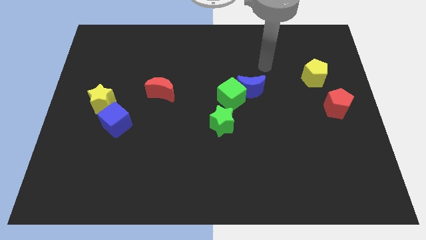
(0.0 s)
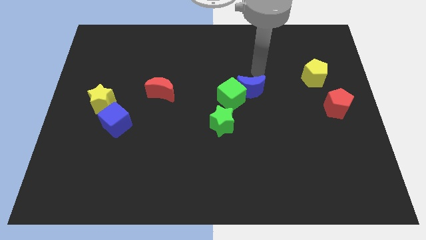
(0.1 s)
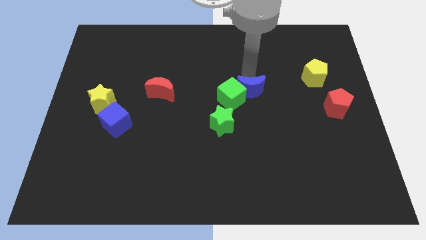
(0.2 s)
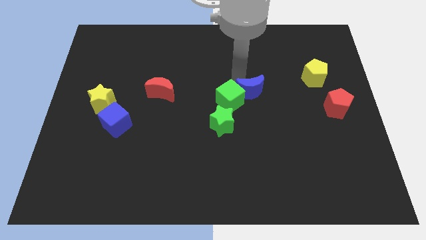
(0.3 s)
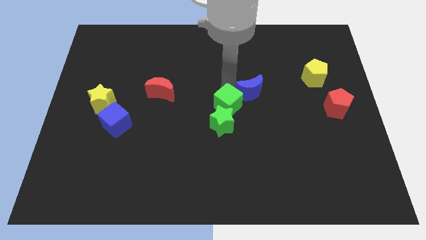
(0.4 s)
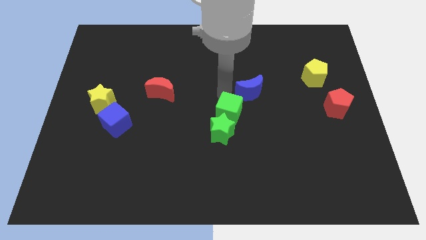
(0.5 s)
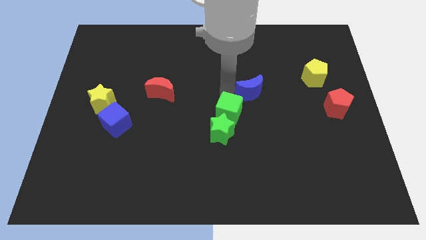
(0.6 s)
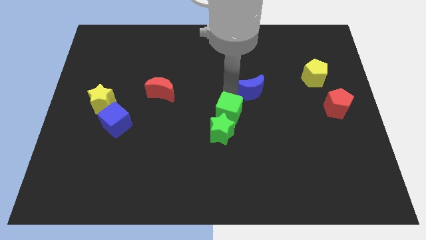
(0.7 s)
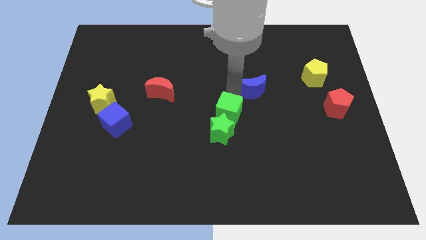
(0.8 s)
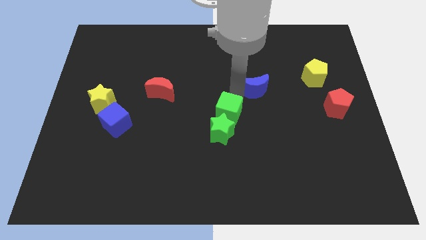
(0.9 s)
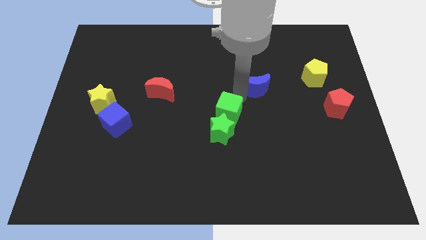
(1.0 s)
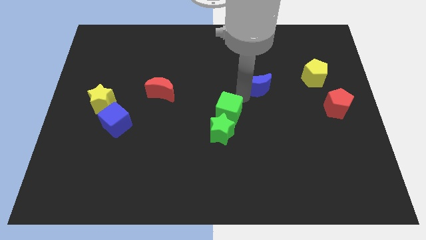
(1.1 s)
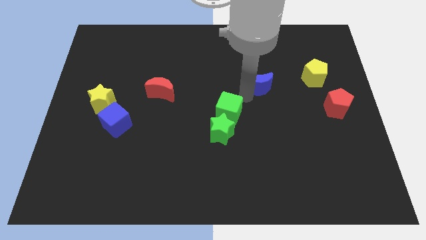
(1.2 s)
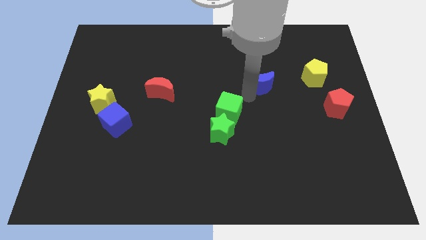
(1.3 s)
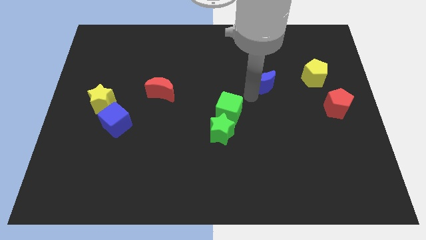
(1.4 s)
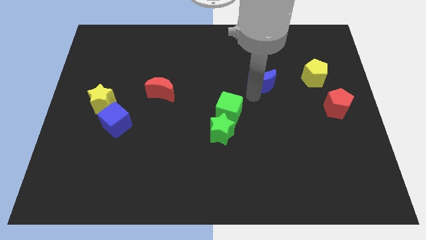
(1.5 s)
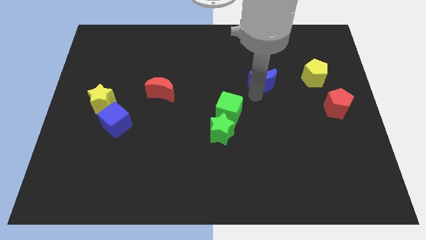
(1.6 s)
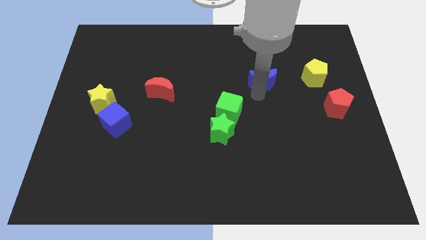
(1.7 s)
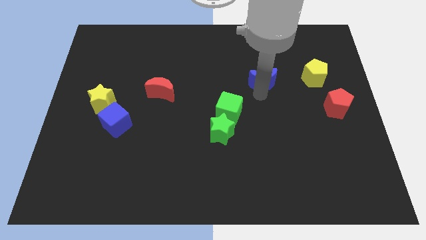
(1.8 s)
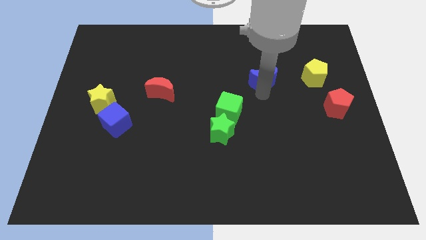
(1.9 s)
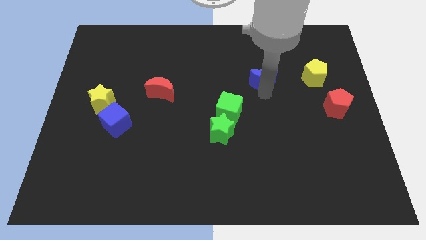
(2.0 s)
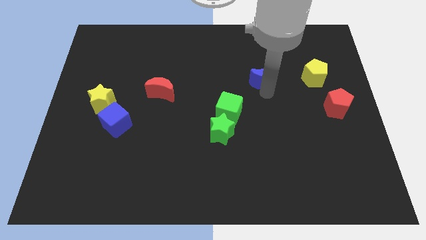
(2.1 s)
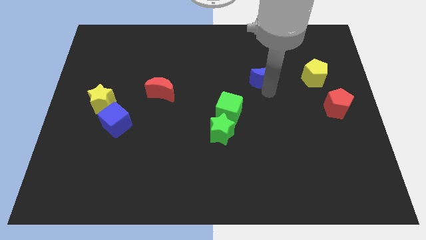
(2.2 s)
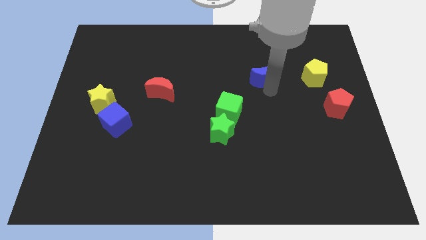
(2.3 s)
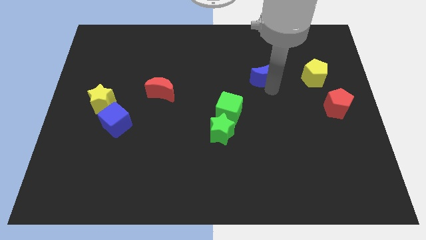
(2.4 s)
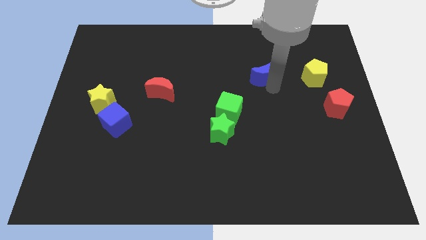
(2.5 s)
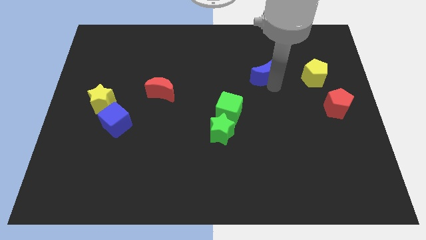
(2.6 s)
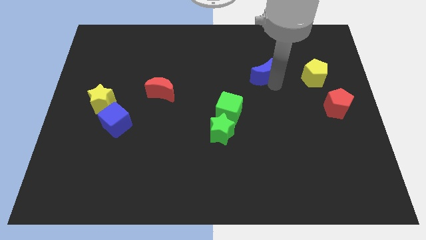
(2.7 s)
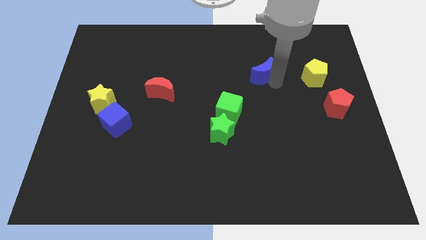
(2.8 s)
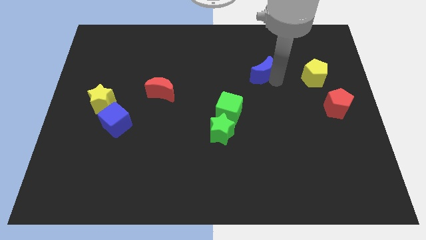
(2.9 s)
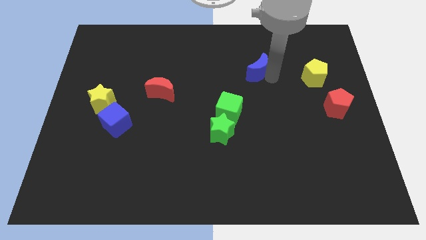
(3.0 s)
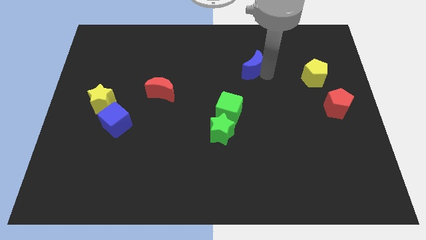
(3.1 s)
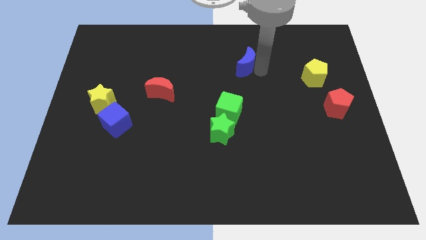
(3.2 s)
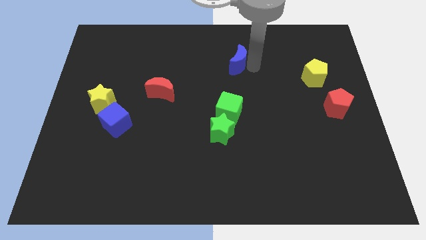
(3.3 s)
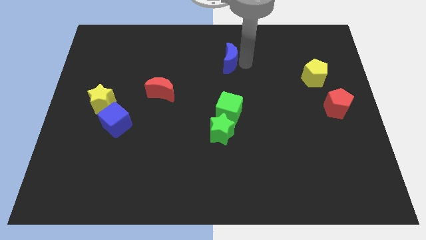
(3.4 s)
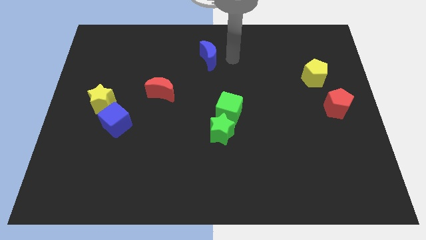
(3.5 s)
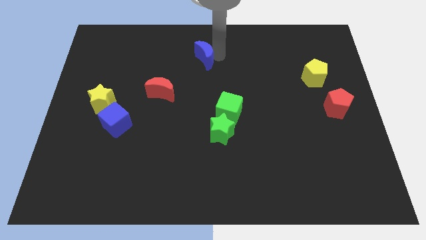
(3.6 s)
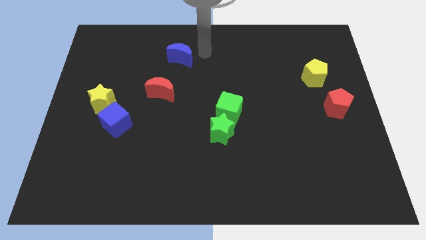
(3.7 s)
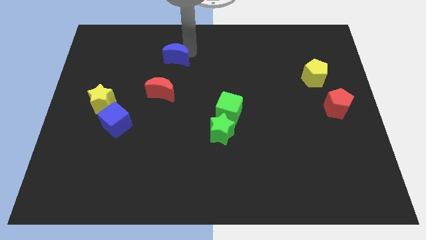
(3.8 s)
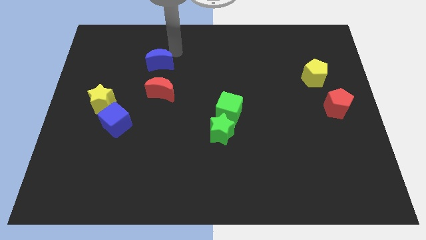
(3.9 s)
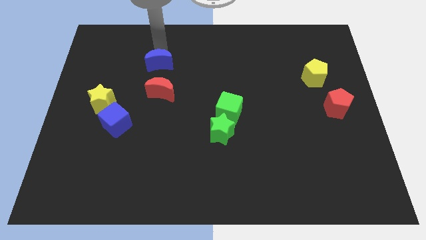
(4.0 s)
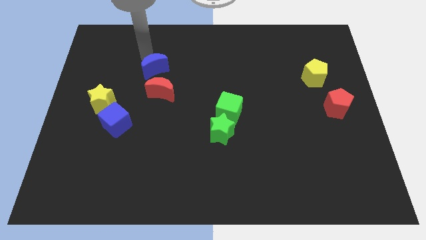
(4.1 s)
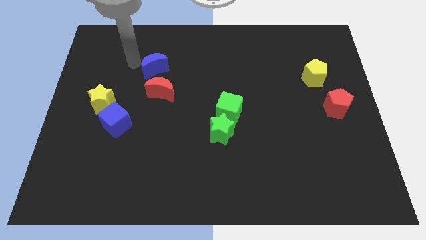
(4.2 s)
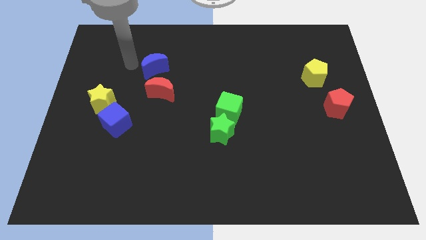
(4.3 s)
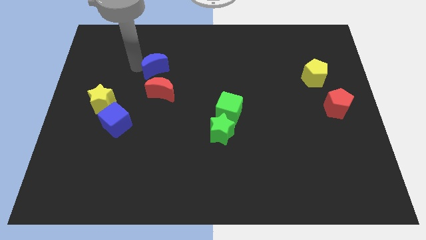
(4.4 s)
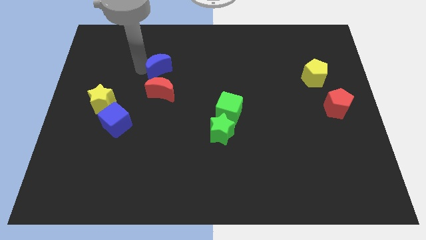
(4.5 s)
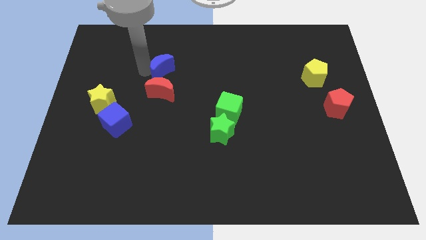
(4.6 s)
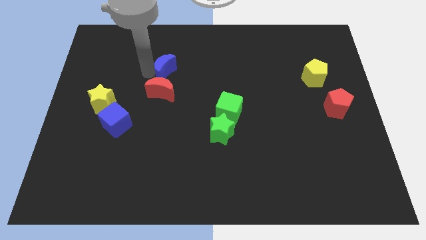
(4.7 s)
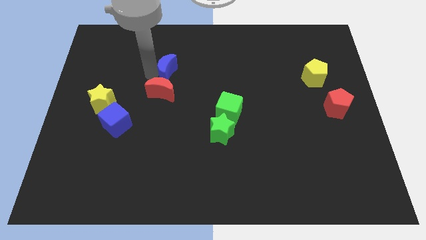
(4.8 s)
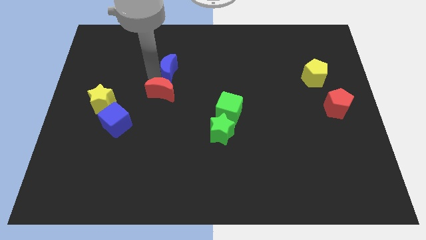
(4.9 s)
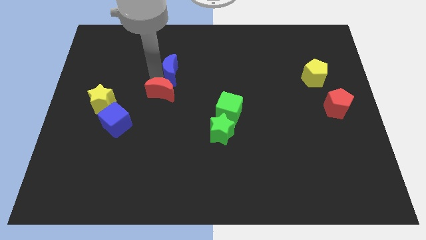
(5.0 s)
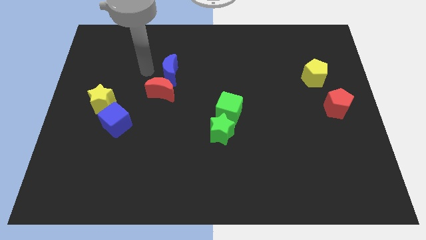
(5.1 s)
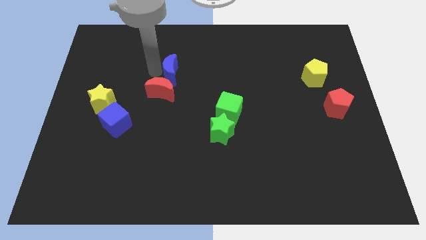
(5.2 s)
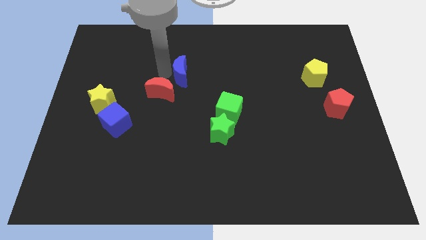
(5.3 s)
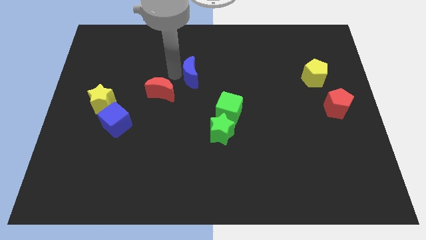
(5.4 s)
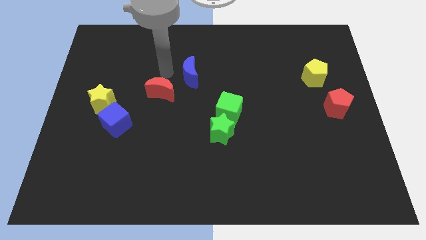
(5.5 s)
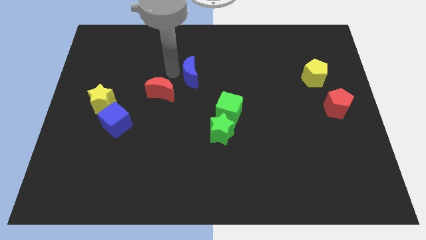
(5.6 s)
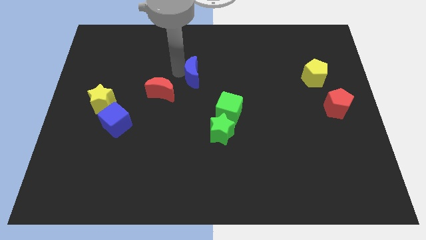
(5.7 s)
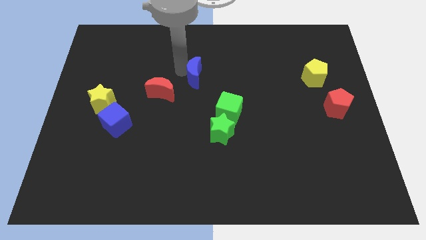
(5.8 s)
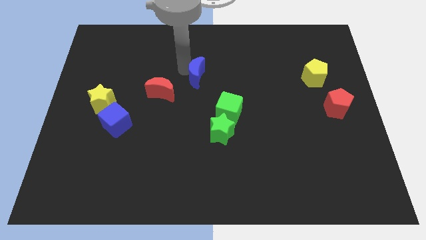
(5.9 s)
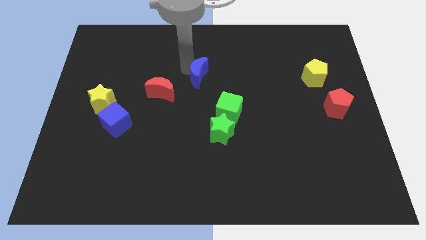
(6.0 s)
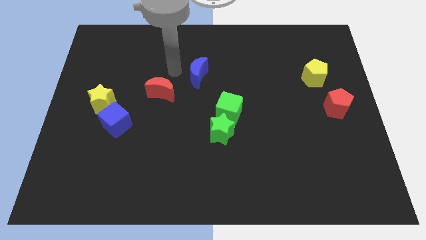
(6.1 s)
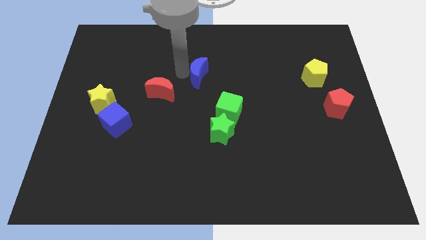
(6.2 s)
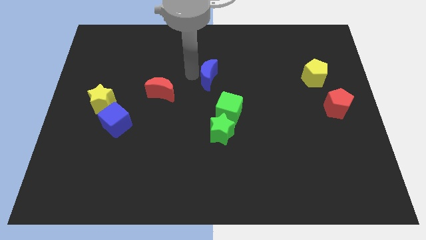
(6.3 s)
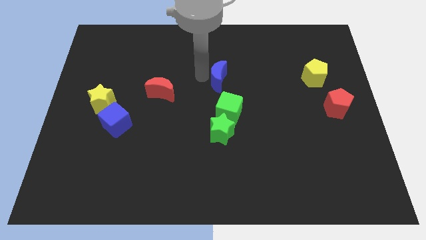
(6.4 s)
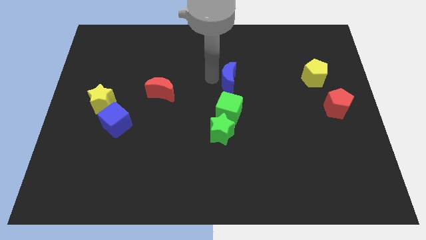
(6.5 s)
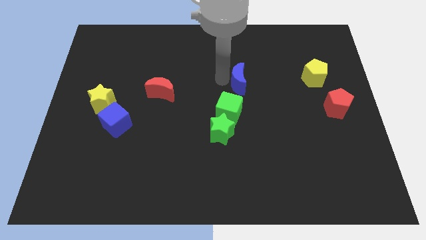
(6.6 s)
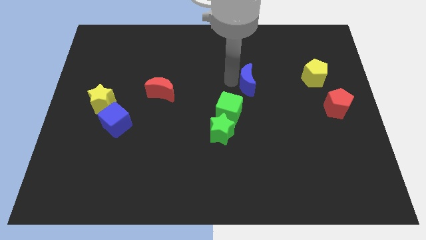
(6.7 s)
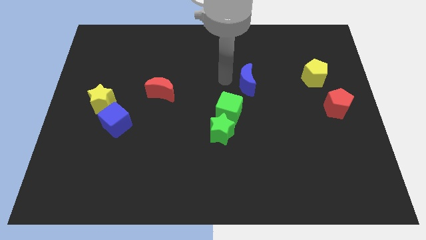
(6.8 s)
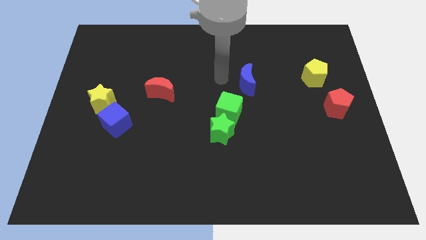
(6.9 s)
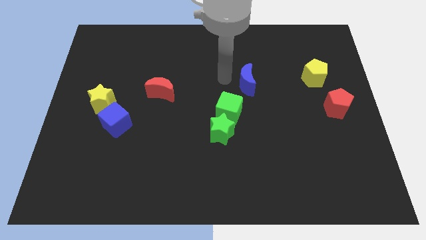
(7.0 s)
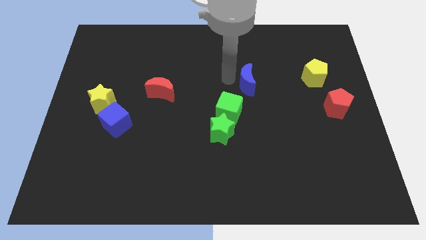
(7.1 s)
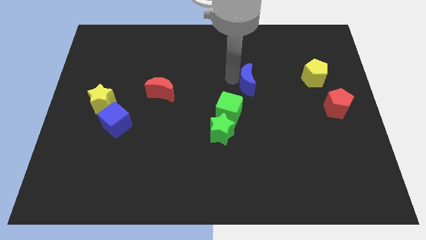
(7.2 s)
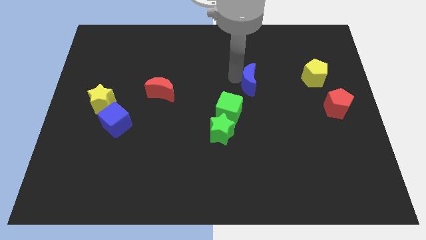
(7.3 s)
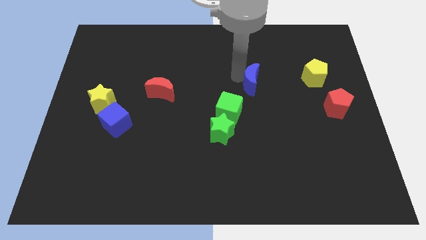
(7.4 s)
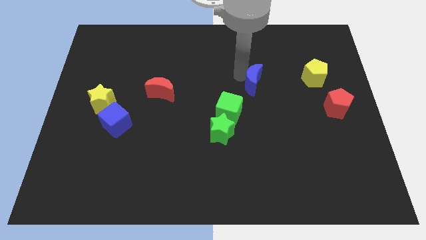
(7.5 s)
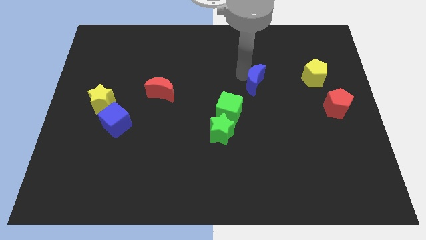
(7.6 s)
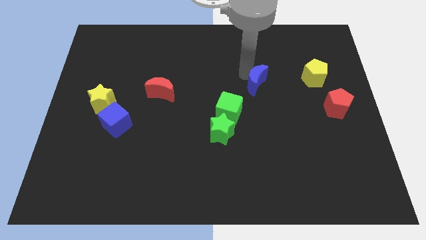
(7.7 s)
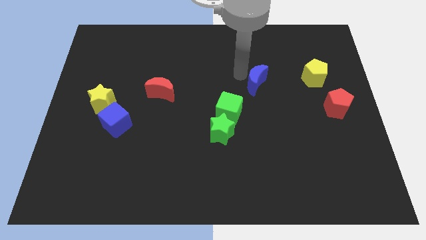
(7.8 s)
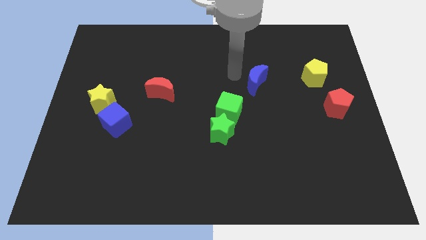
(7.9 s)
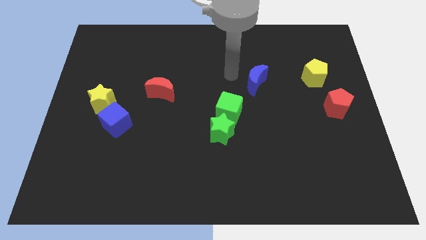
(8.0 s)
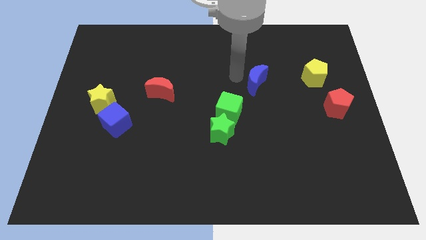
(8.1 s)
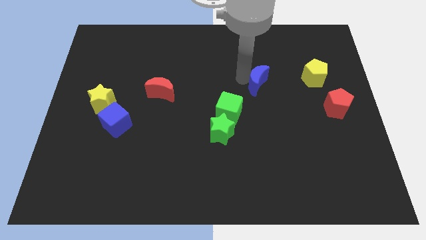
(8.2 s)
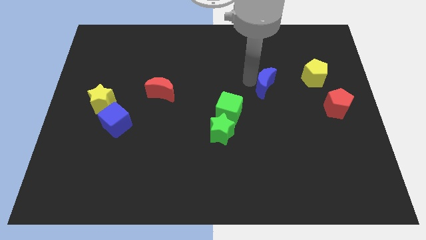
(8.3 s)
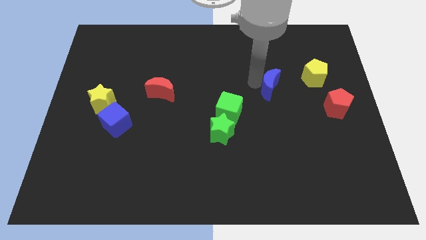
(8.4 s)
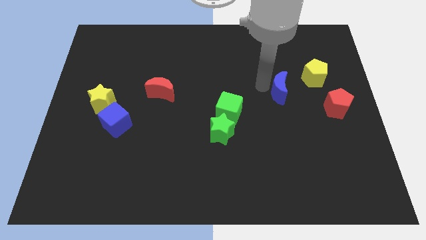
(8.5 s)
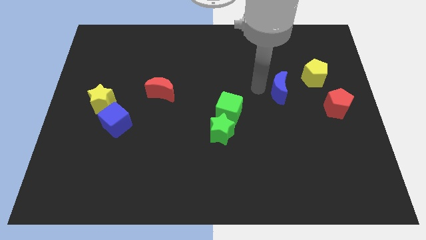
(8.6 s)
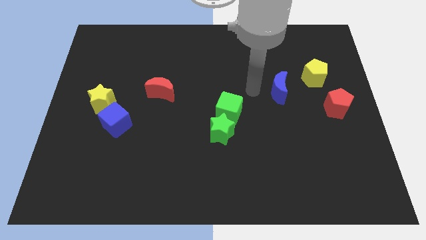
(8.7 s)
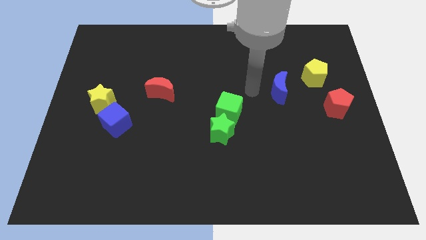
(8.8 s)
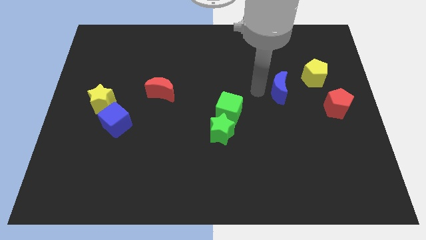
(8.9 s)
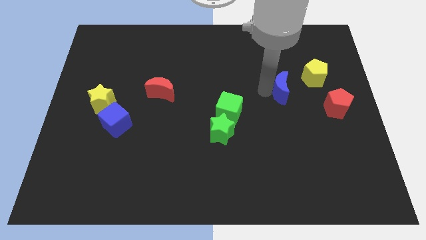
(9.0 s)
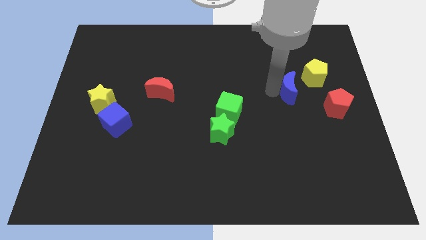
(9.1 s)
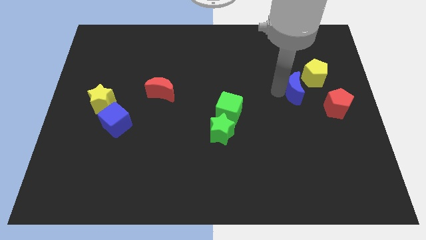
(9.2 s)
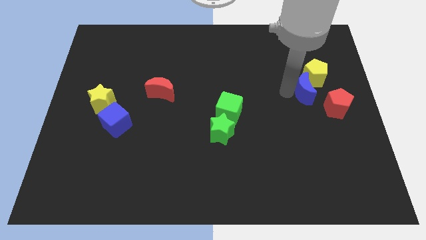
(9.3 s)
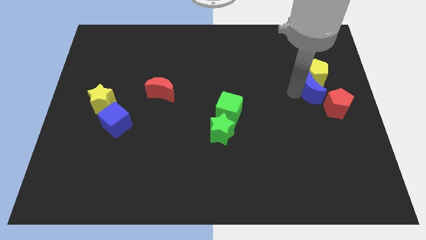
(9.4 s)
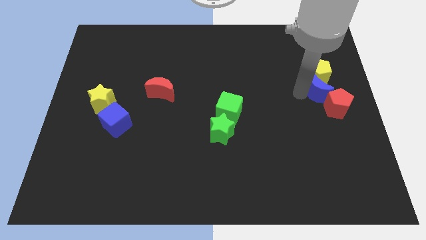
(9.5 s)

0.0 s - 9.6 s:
push the blue moon above the red pentagon
